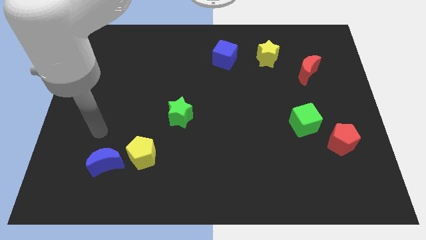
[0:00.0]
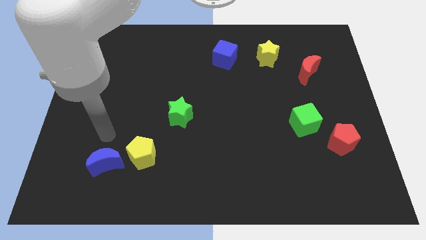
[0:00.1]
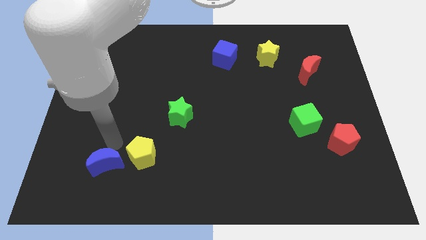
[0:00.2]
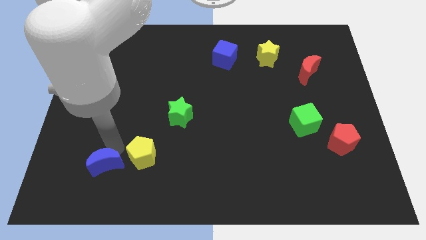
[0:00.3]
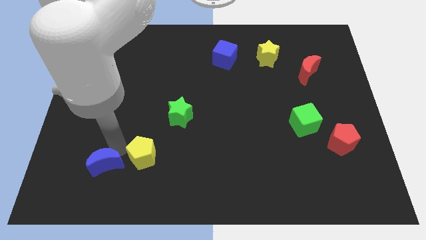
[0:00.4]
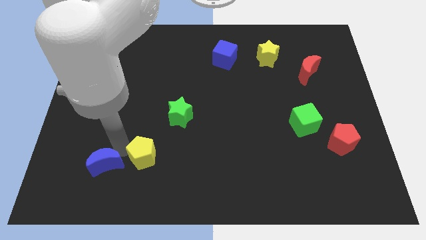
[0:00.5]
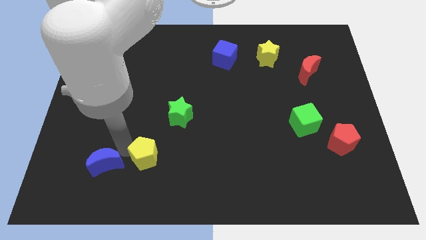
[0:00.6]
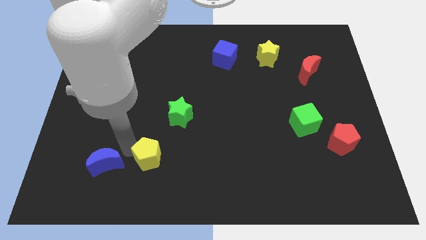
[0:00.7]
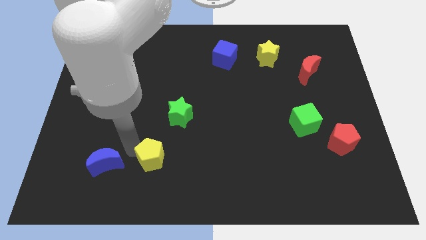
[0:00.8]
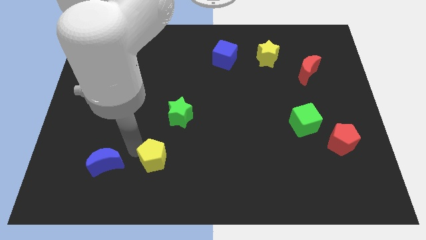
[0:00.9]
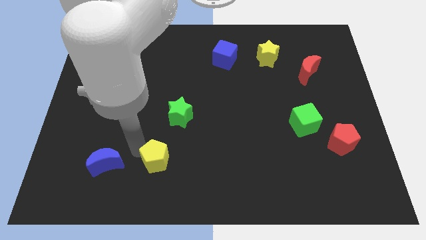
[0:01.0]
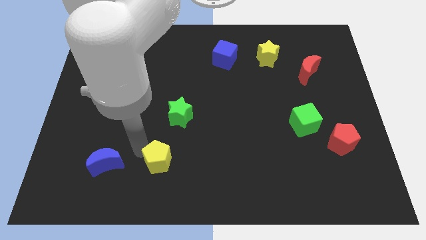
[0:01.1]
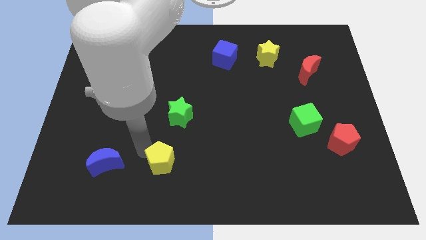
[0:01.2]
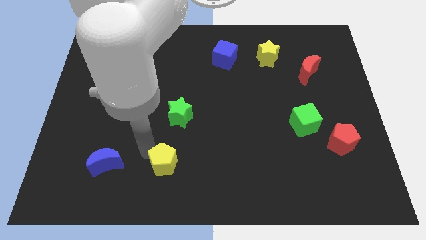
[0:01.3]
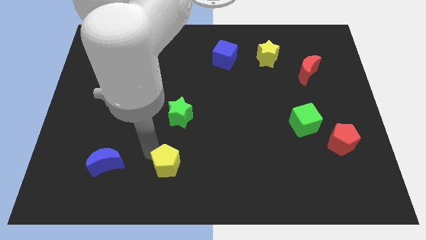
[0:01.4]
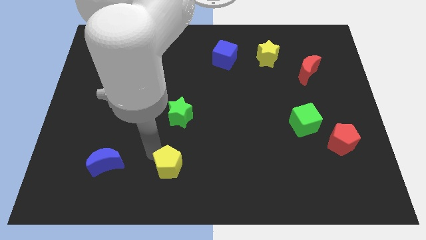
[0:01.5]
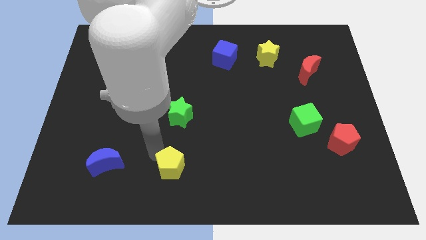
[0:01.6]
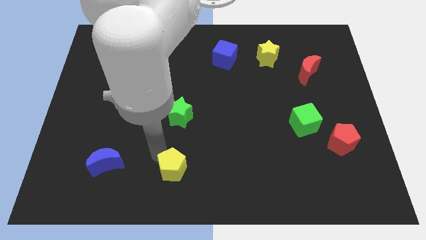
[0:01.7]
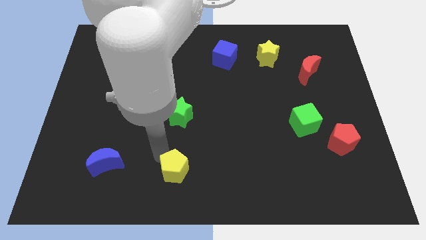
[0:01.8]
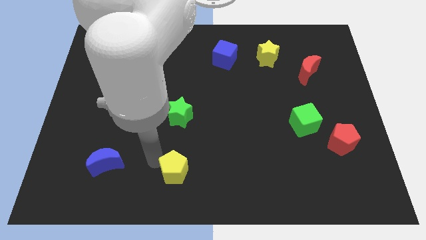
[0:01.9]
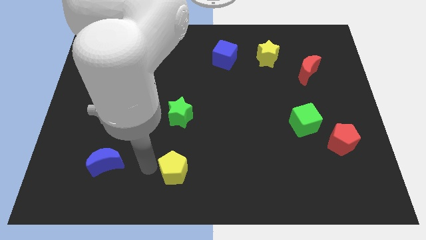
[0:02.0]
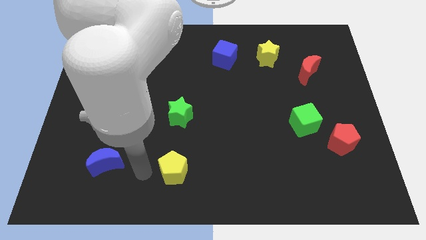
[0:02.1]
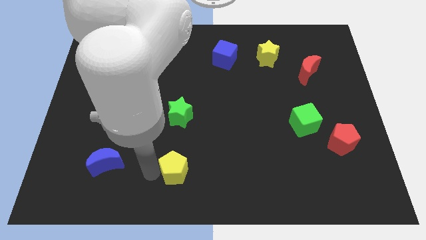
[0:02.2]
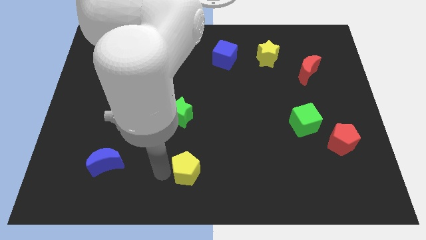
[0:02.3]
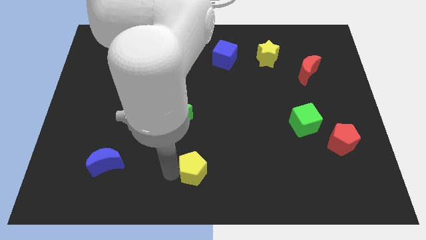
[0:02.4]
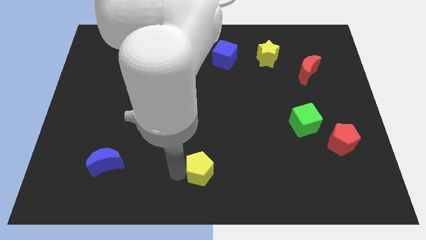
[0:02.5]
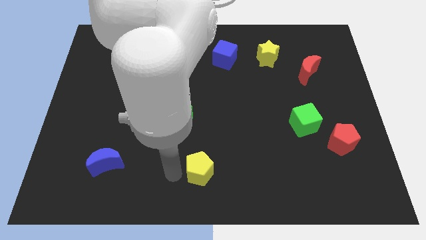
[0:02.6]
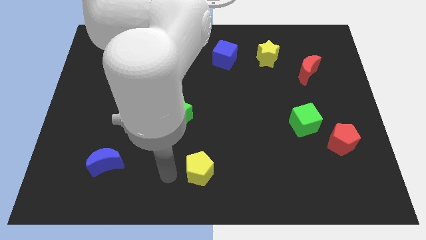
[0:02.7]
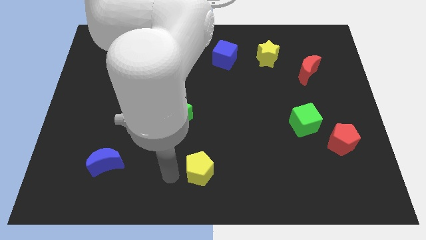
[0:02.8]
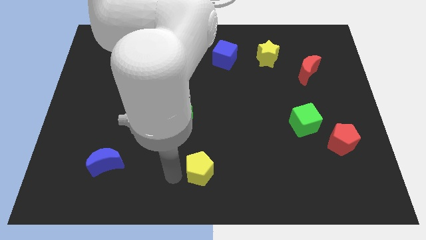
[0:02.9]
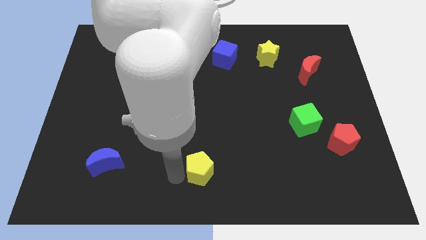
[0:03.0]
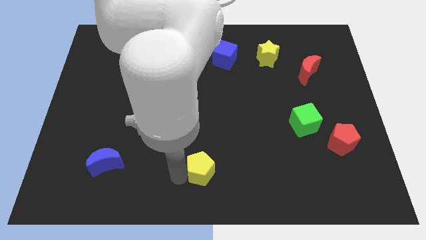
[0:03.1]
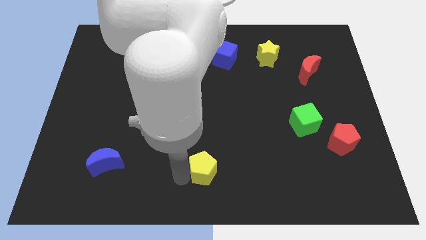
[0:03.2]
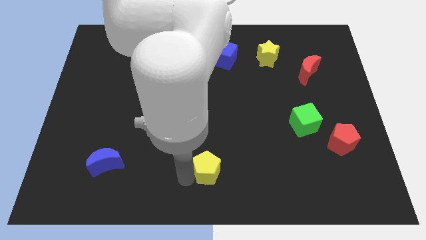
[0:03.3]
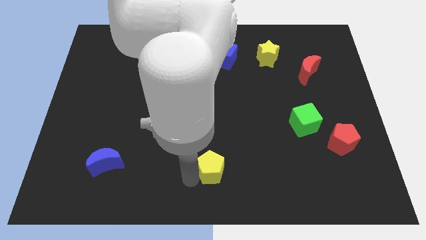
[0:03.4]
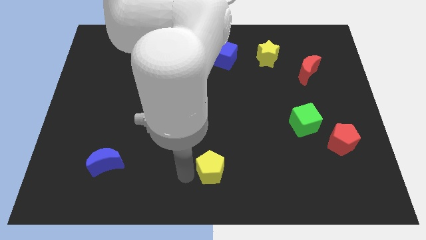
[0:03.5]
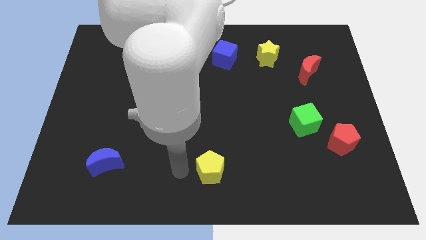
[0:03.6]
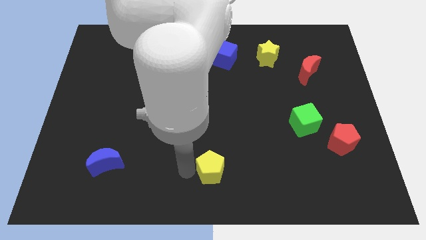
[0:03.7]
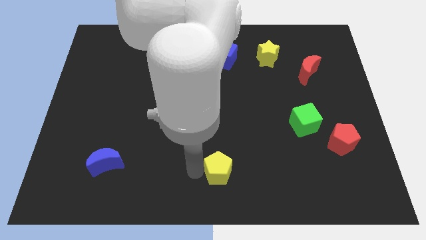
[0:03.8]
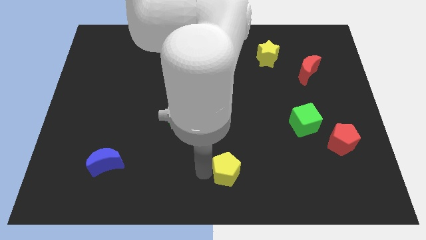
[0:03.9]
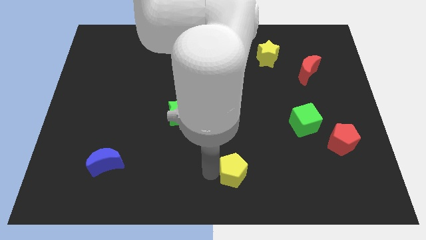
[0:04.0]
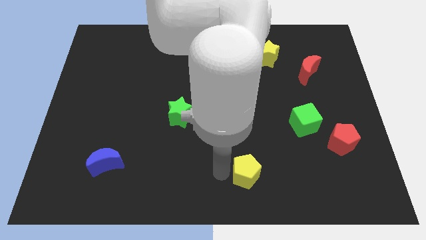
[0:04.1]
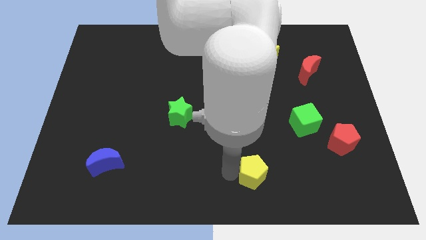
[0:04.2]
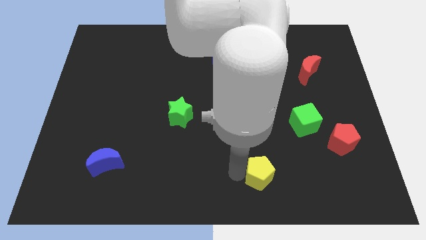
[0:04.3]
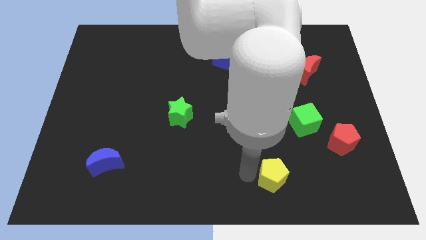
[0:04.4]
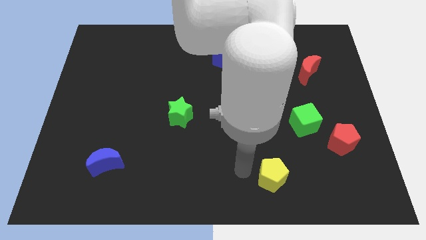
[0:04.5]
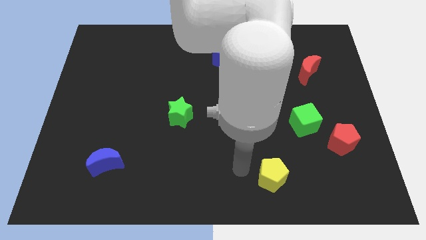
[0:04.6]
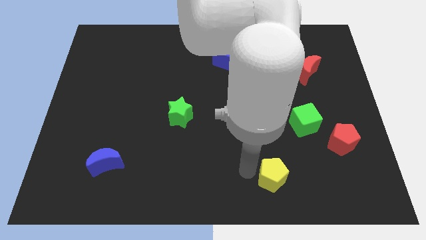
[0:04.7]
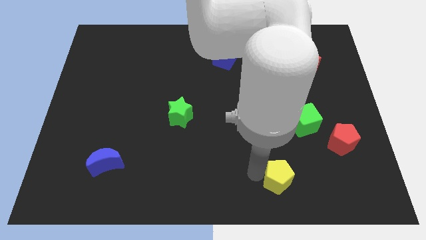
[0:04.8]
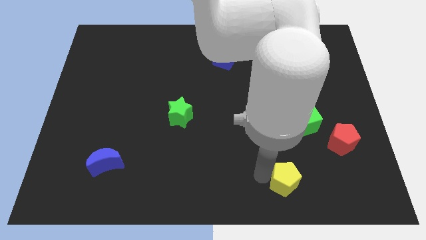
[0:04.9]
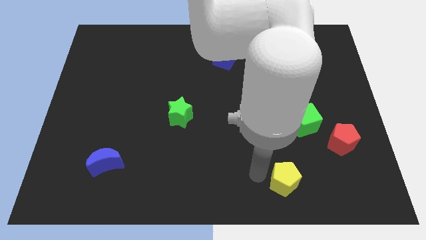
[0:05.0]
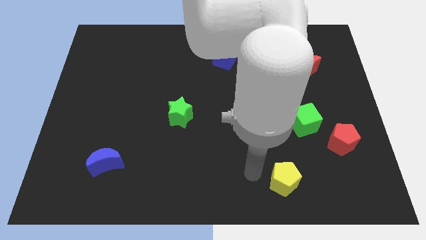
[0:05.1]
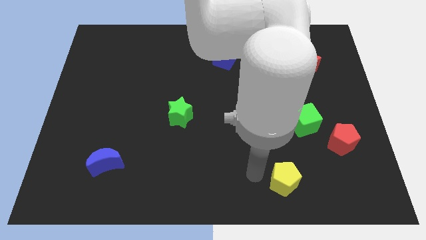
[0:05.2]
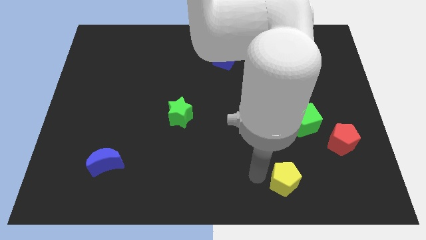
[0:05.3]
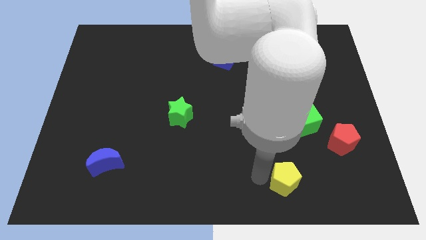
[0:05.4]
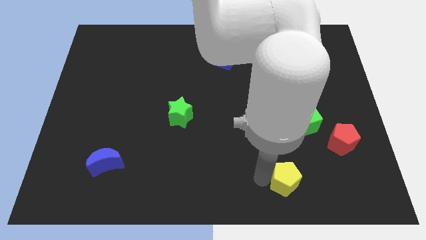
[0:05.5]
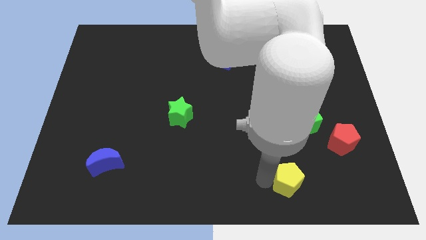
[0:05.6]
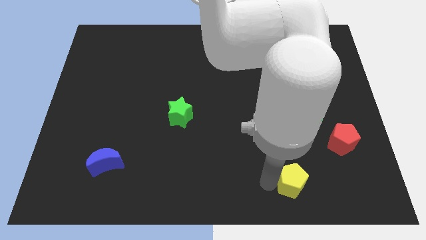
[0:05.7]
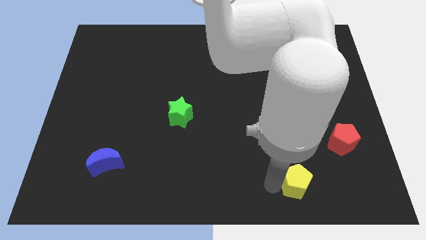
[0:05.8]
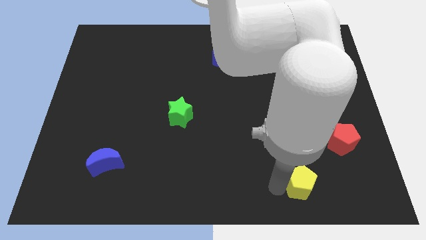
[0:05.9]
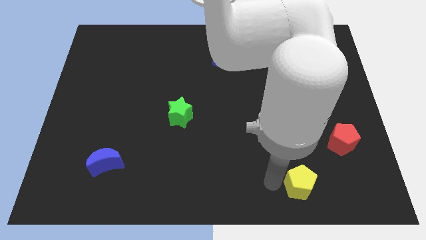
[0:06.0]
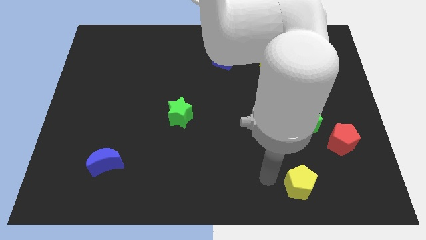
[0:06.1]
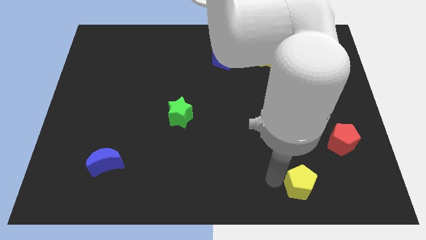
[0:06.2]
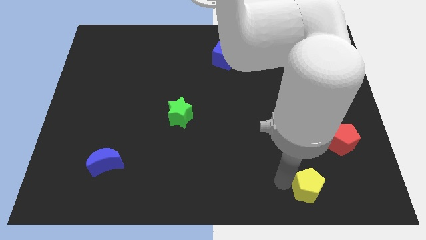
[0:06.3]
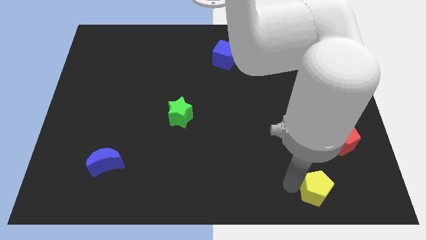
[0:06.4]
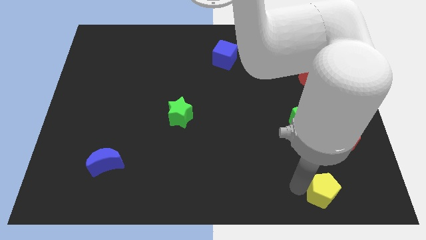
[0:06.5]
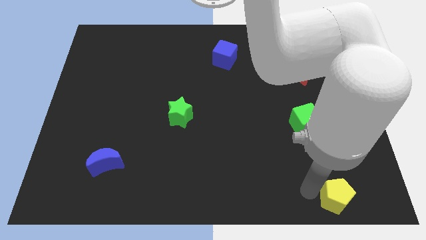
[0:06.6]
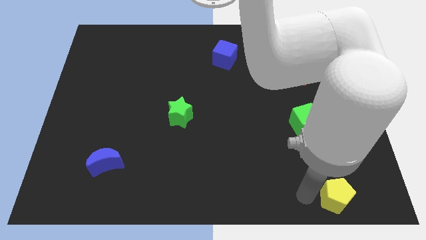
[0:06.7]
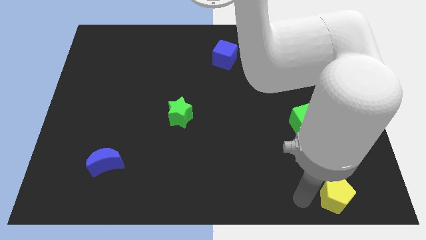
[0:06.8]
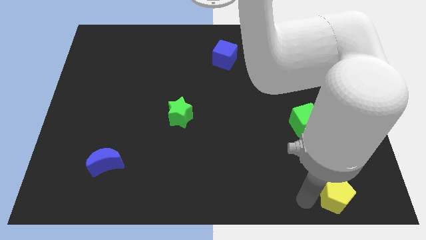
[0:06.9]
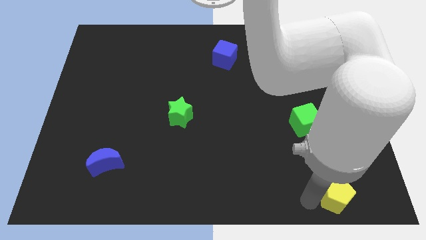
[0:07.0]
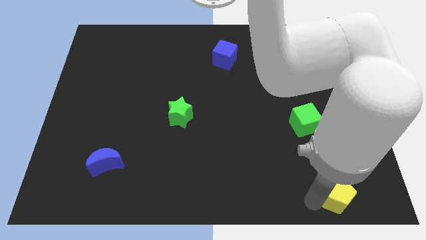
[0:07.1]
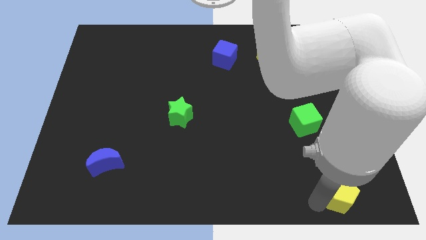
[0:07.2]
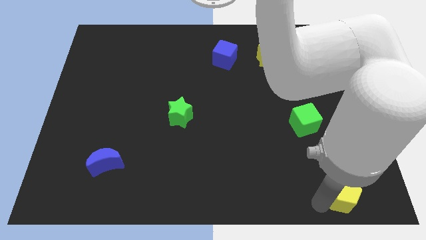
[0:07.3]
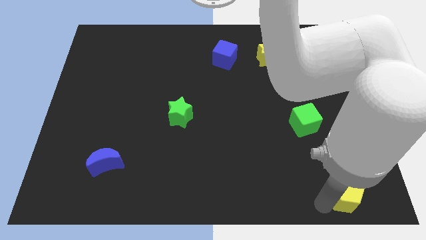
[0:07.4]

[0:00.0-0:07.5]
slide the yellow pentagon to the bottom right

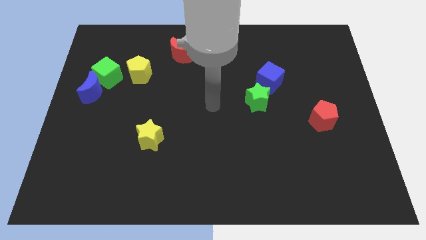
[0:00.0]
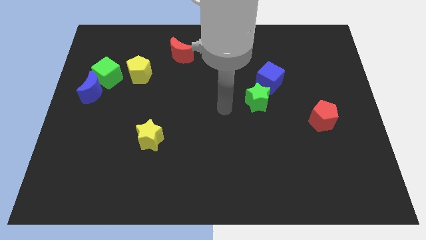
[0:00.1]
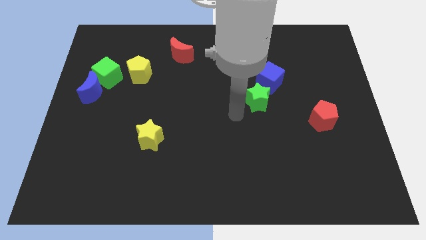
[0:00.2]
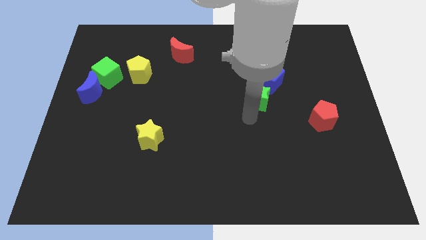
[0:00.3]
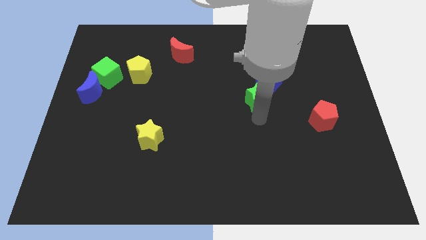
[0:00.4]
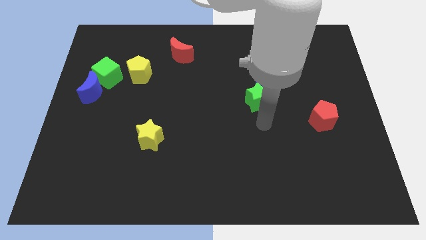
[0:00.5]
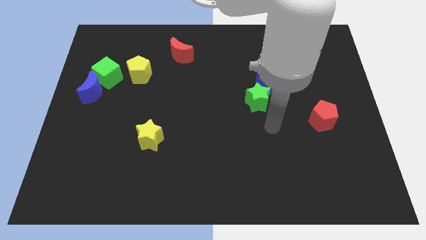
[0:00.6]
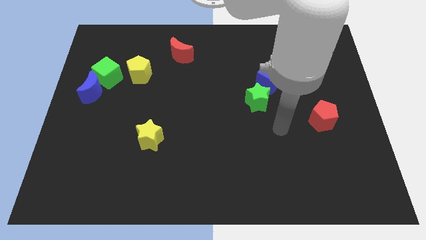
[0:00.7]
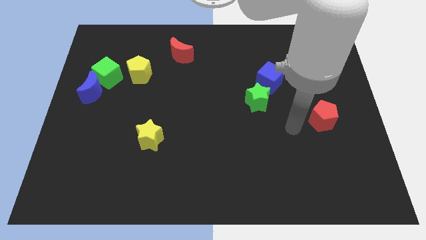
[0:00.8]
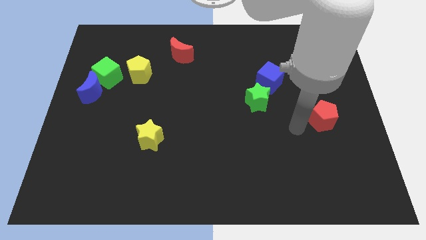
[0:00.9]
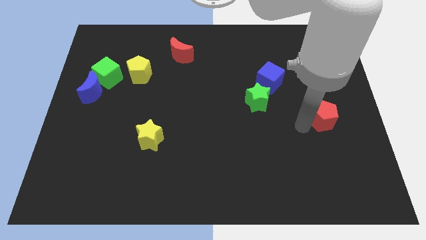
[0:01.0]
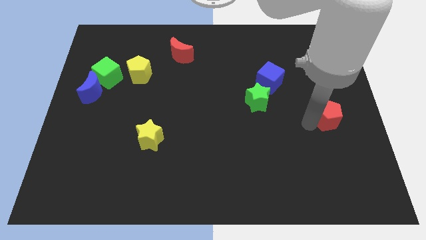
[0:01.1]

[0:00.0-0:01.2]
move the red pentagon to the center right
